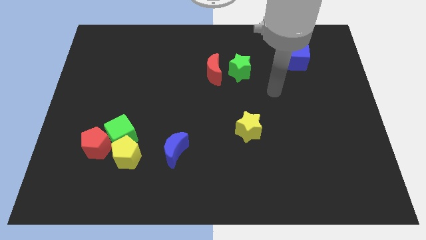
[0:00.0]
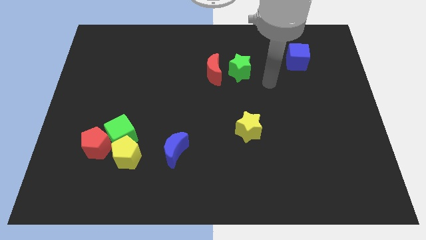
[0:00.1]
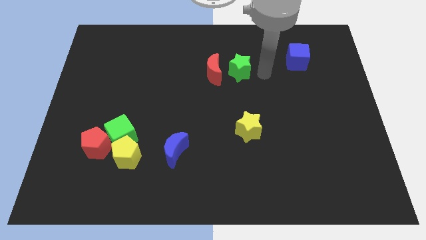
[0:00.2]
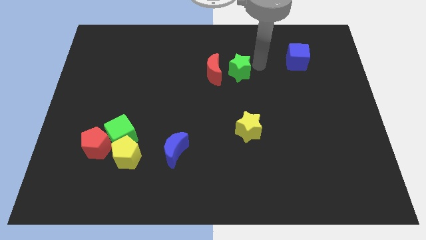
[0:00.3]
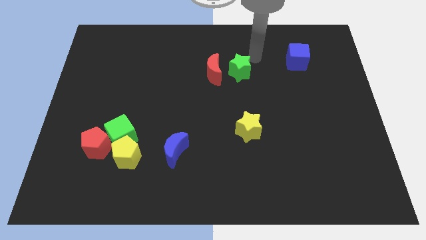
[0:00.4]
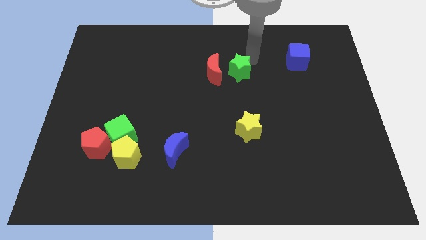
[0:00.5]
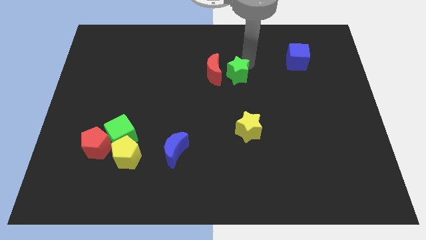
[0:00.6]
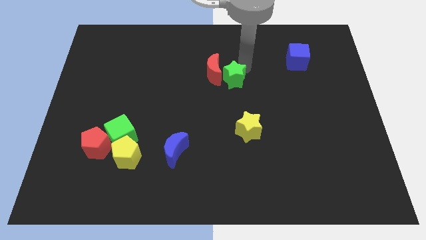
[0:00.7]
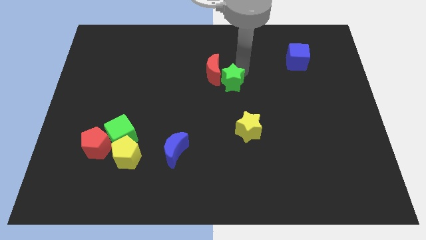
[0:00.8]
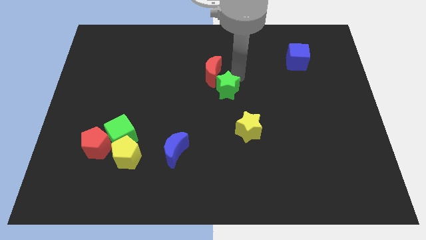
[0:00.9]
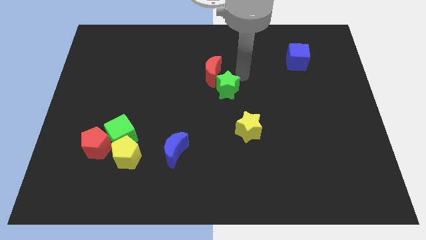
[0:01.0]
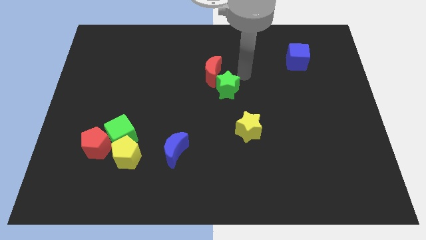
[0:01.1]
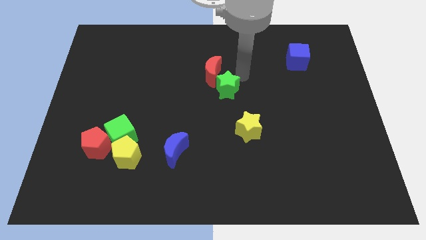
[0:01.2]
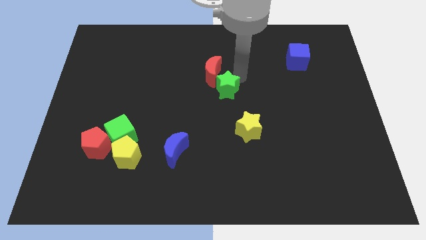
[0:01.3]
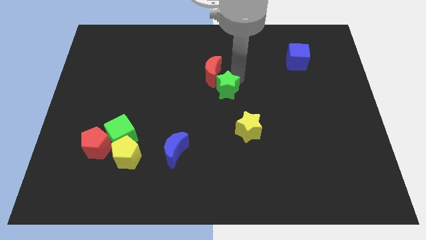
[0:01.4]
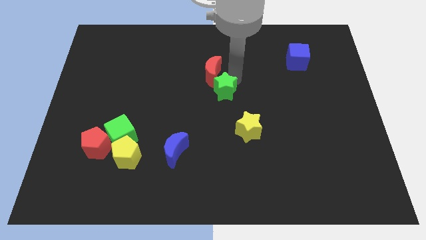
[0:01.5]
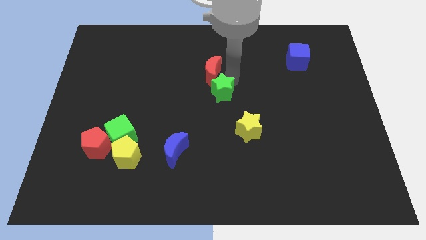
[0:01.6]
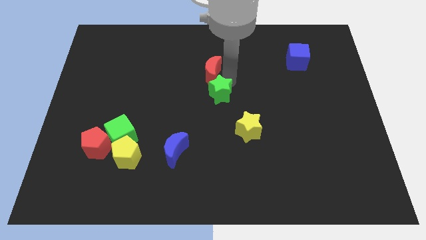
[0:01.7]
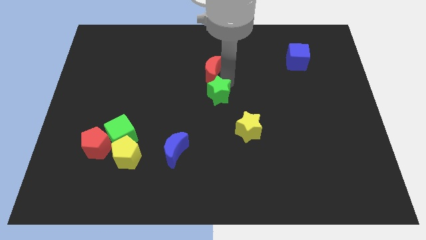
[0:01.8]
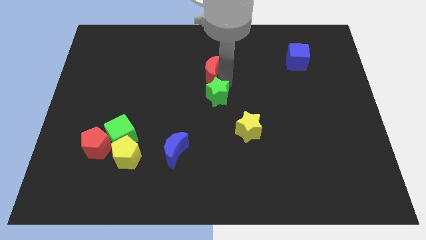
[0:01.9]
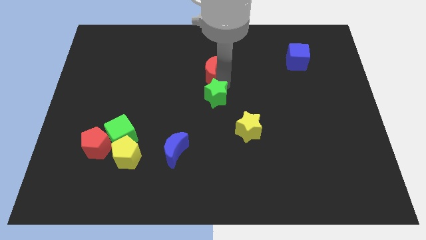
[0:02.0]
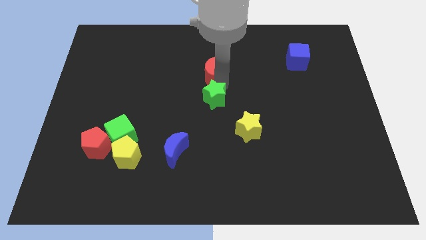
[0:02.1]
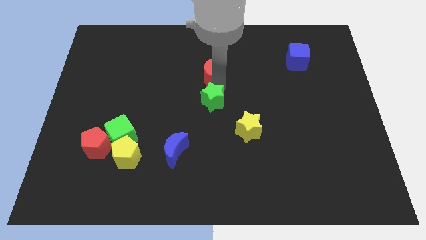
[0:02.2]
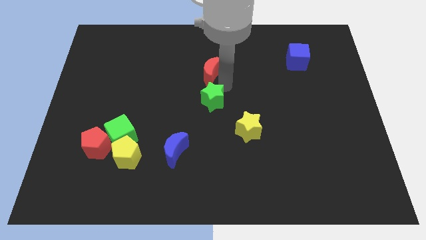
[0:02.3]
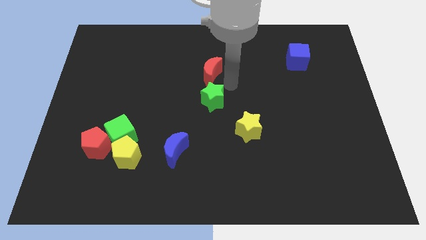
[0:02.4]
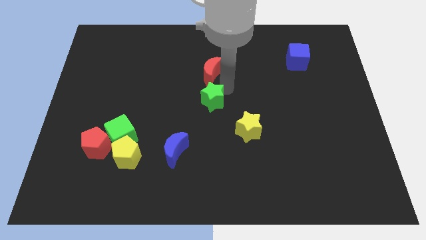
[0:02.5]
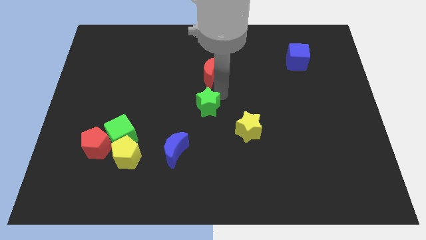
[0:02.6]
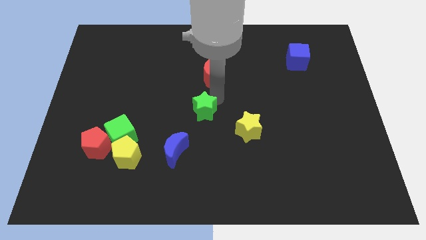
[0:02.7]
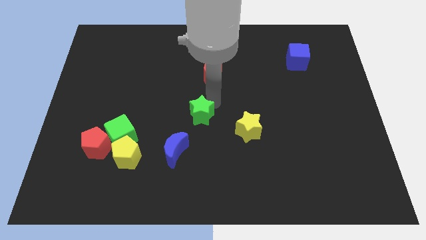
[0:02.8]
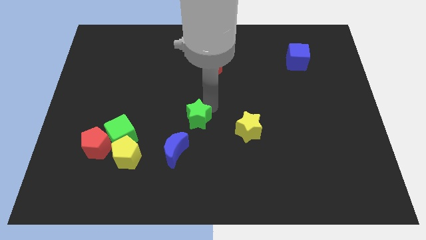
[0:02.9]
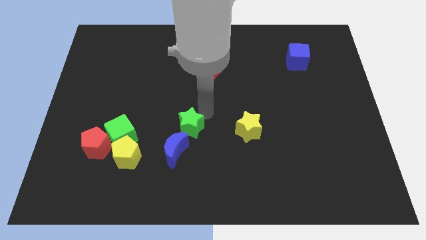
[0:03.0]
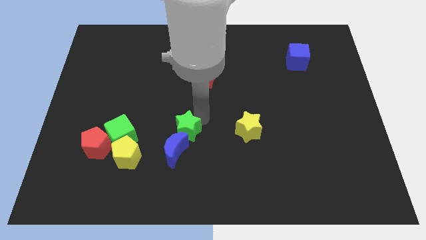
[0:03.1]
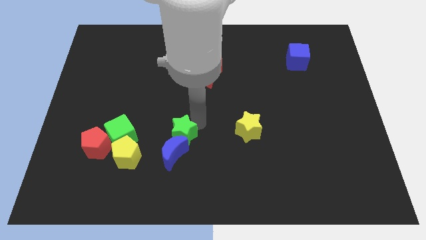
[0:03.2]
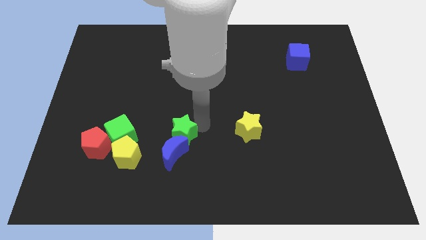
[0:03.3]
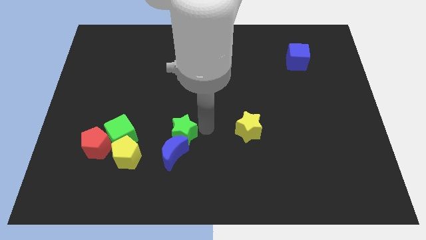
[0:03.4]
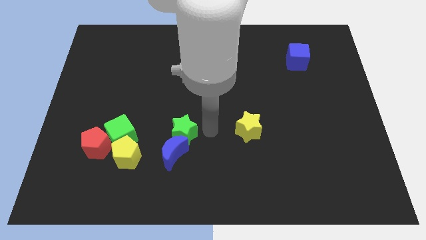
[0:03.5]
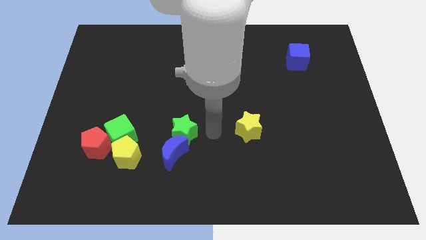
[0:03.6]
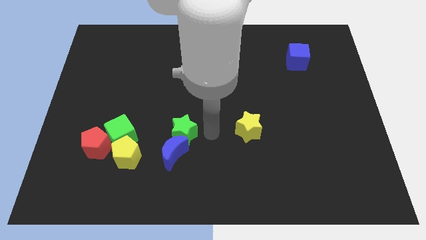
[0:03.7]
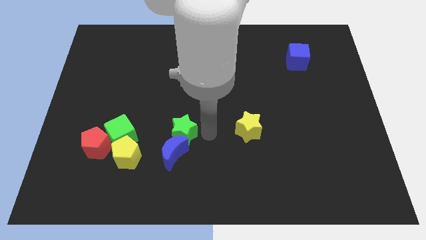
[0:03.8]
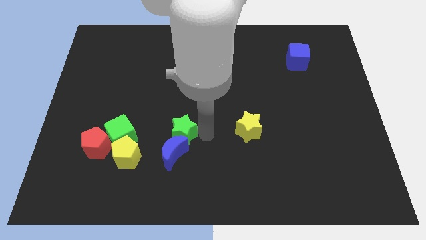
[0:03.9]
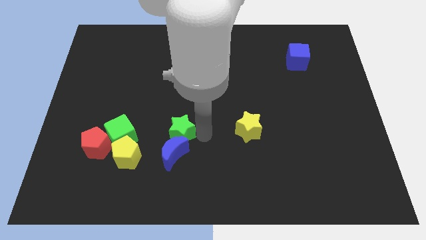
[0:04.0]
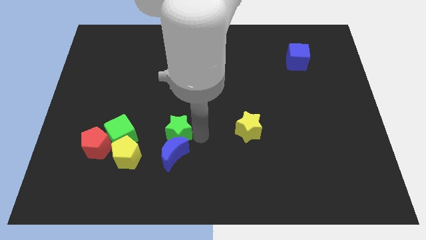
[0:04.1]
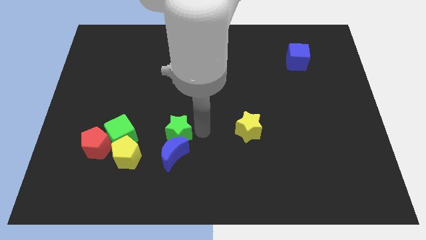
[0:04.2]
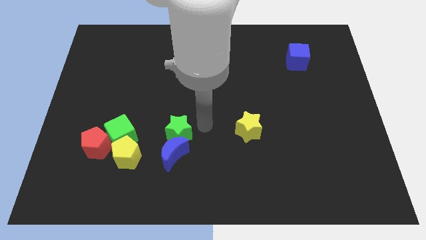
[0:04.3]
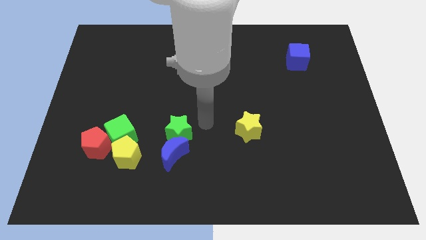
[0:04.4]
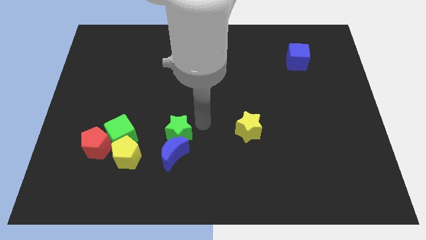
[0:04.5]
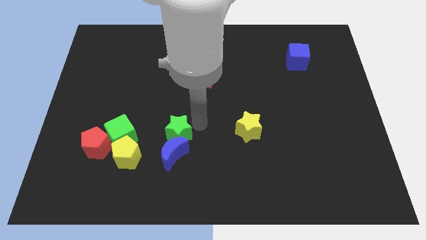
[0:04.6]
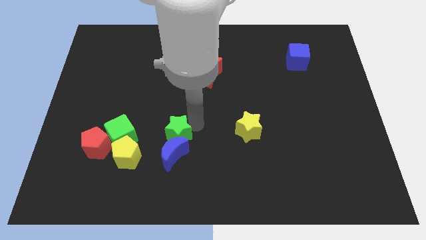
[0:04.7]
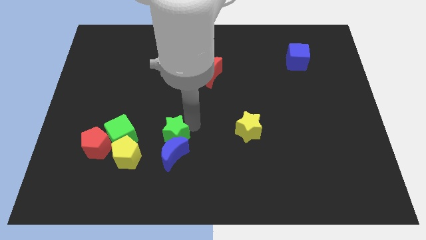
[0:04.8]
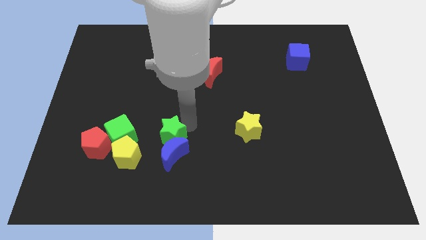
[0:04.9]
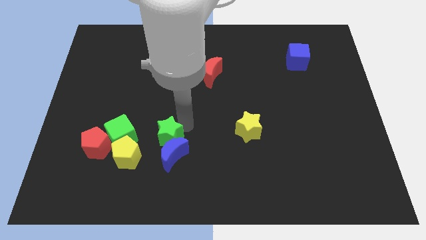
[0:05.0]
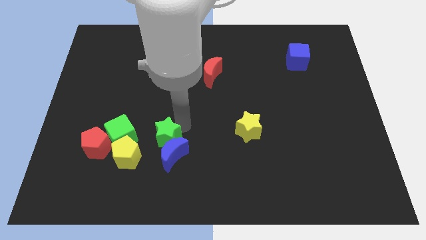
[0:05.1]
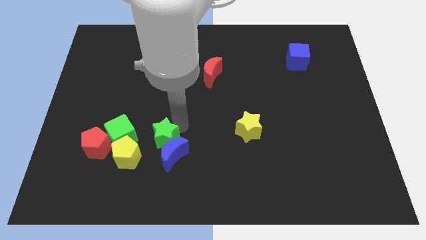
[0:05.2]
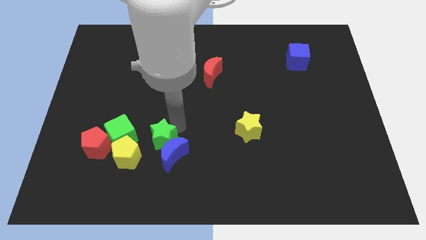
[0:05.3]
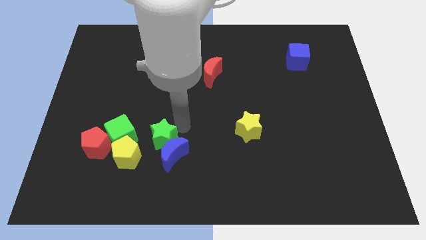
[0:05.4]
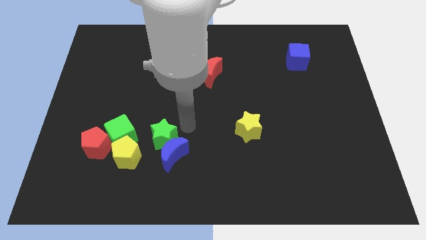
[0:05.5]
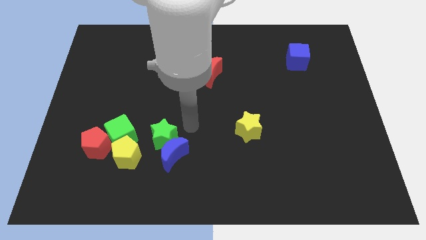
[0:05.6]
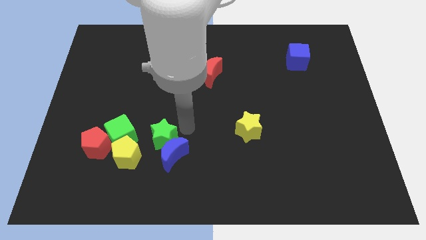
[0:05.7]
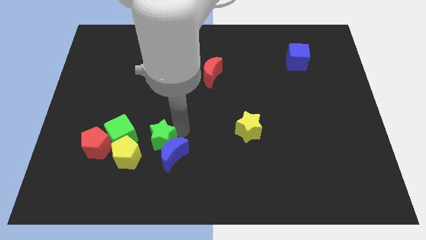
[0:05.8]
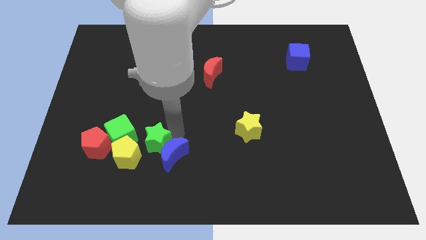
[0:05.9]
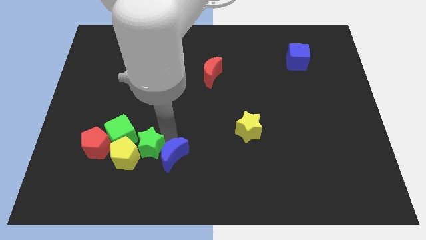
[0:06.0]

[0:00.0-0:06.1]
put the green star towards the yellow pentagon
